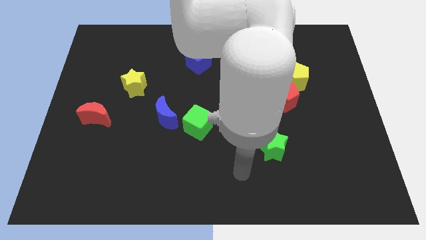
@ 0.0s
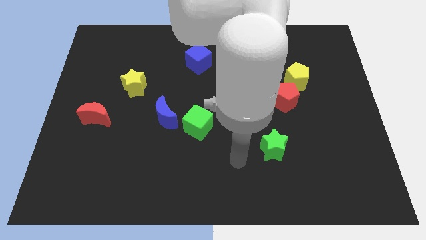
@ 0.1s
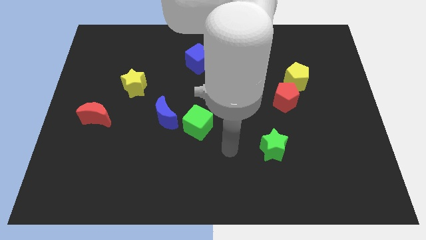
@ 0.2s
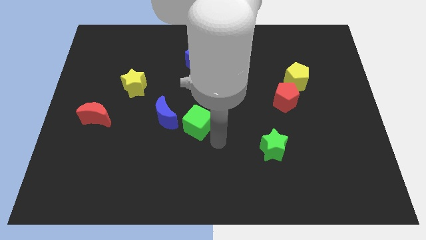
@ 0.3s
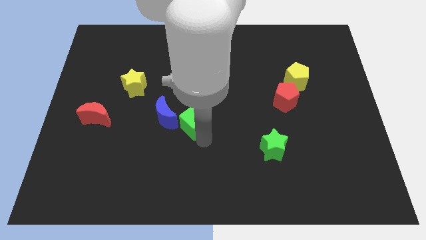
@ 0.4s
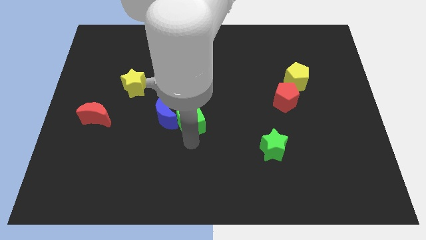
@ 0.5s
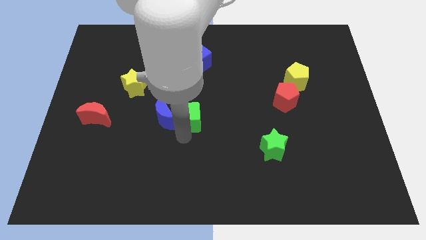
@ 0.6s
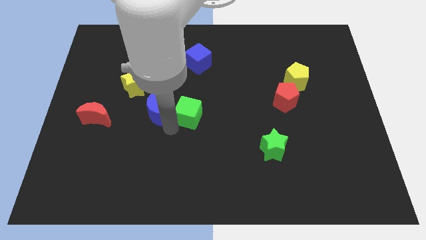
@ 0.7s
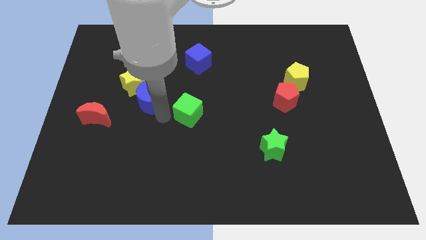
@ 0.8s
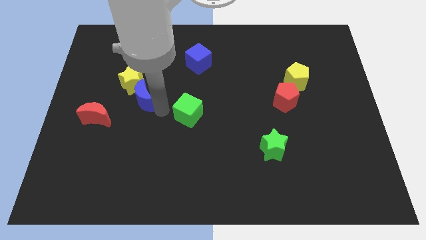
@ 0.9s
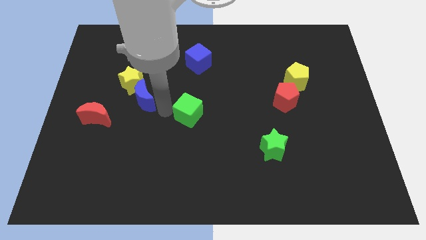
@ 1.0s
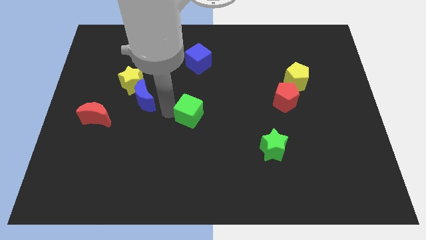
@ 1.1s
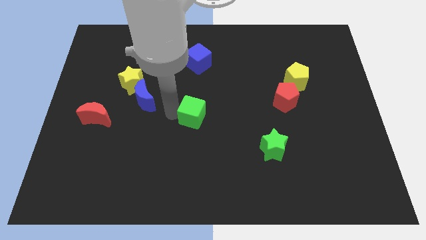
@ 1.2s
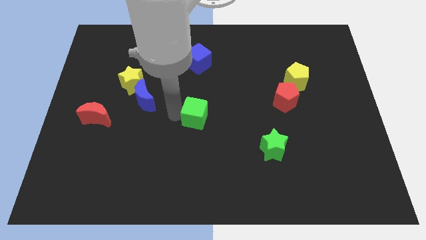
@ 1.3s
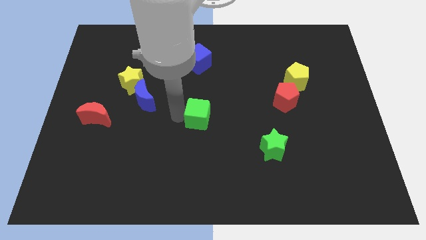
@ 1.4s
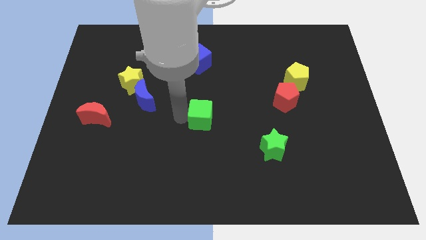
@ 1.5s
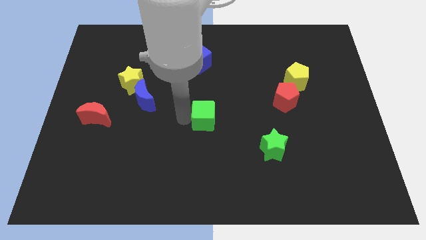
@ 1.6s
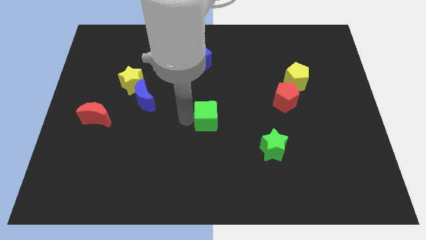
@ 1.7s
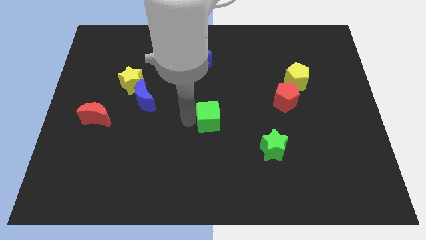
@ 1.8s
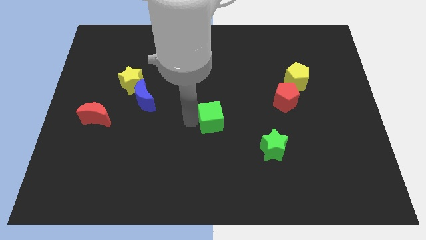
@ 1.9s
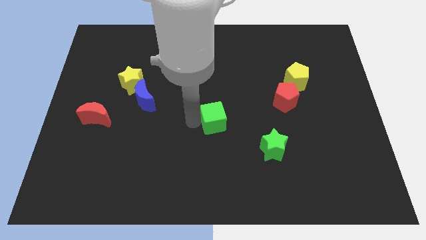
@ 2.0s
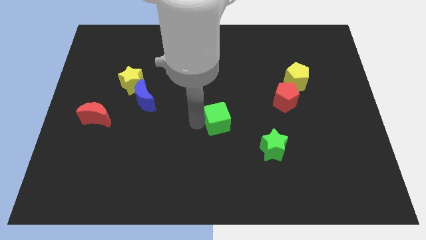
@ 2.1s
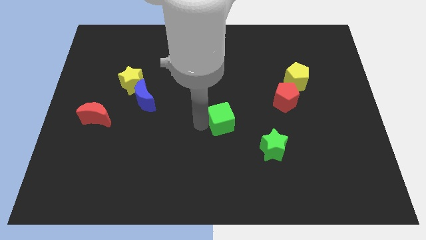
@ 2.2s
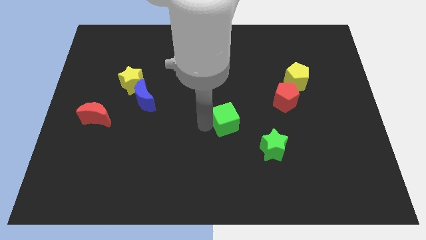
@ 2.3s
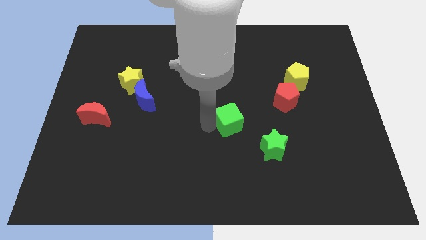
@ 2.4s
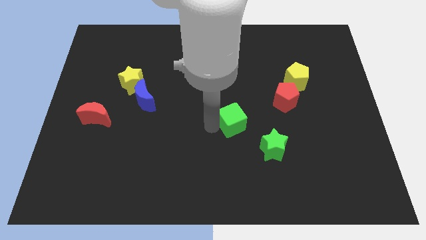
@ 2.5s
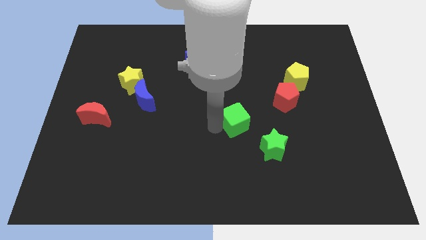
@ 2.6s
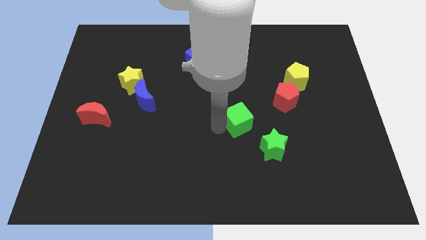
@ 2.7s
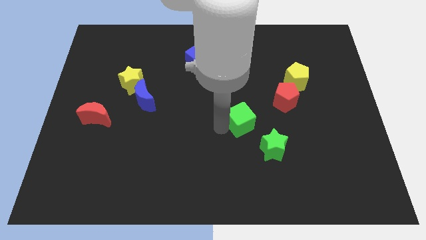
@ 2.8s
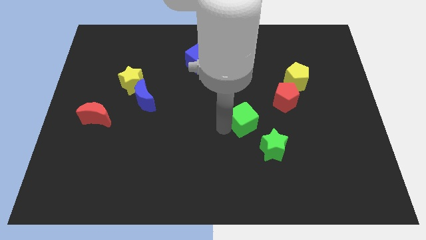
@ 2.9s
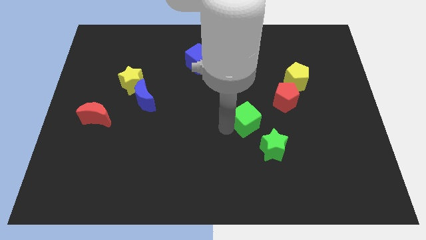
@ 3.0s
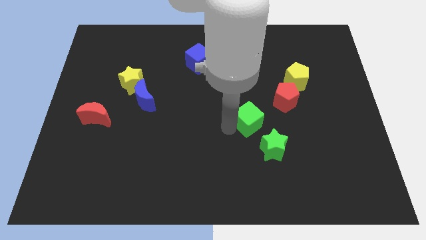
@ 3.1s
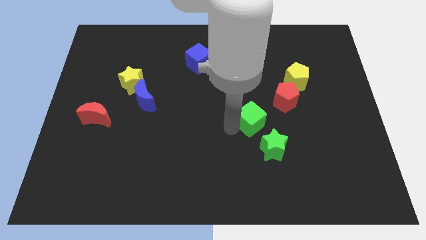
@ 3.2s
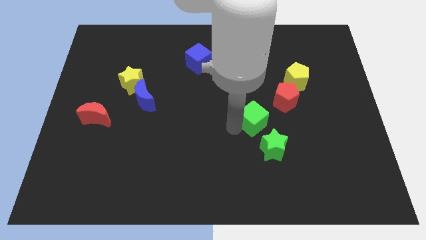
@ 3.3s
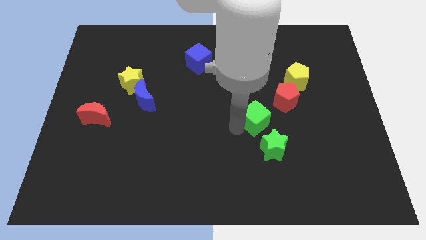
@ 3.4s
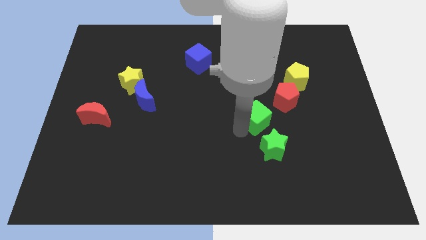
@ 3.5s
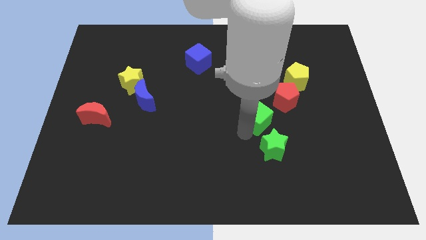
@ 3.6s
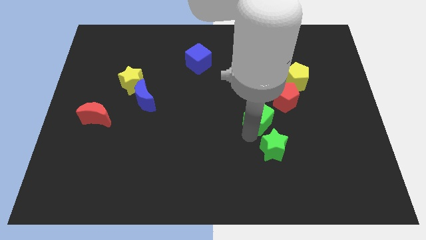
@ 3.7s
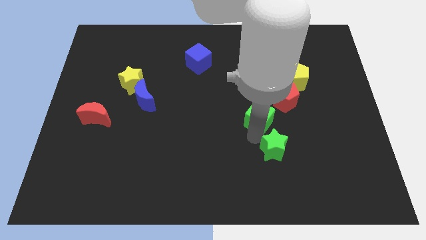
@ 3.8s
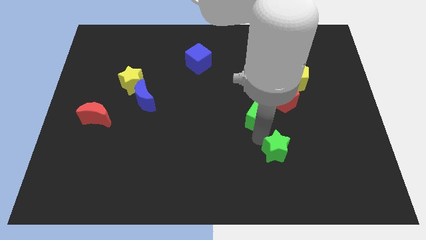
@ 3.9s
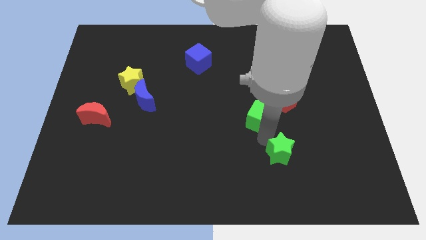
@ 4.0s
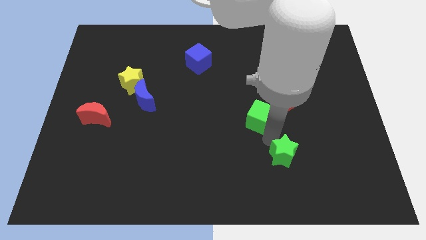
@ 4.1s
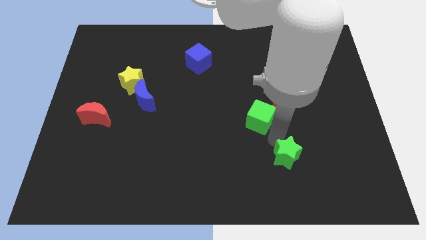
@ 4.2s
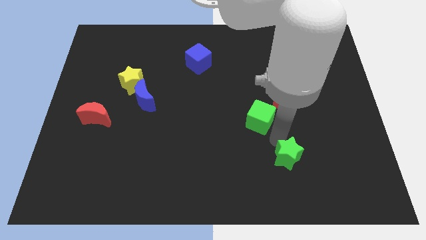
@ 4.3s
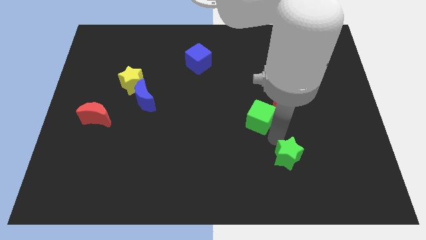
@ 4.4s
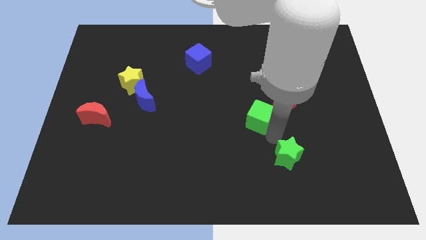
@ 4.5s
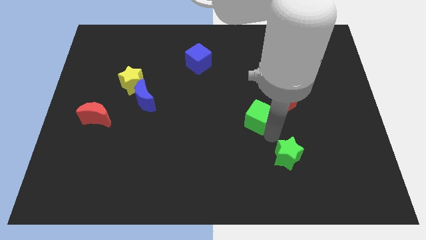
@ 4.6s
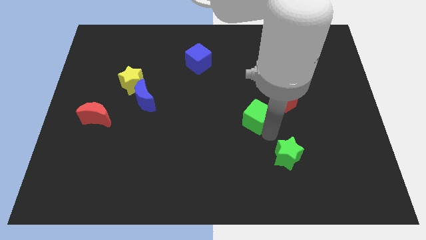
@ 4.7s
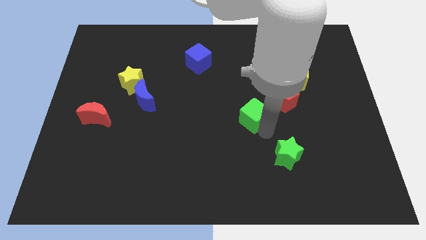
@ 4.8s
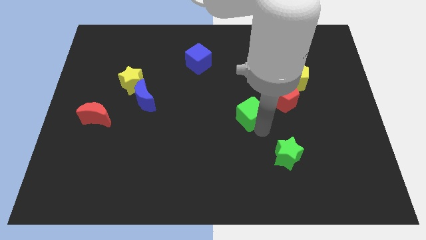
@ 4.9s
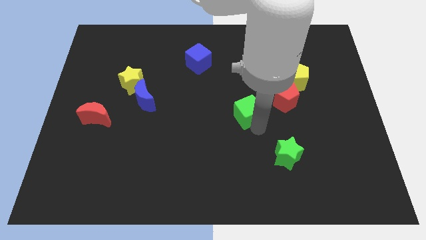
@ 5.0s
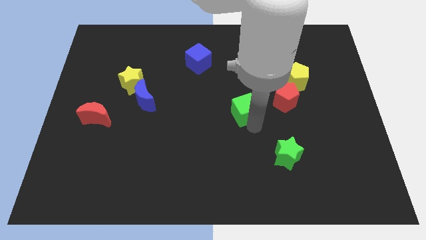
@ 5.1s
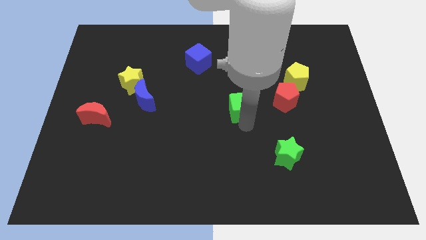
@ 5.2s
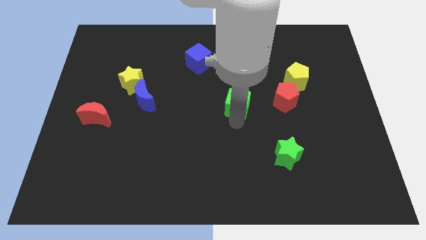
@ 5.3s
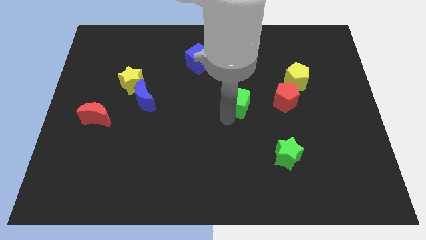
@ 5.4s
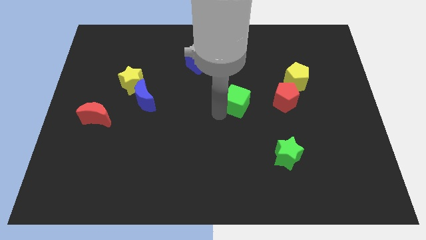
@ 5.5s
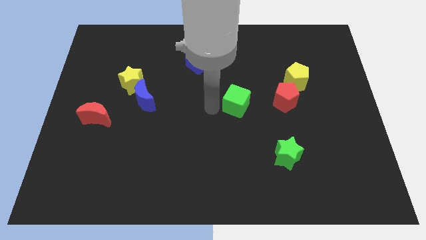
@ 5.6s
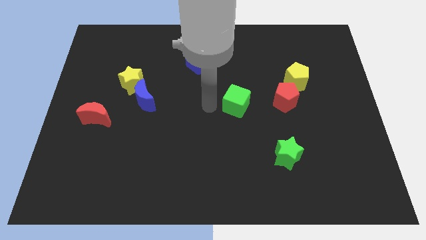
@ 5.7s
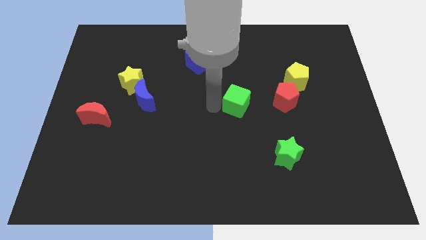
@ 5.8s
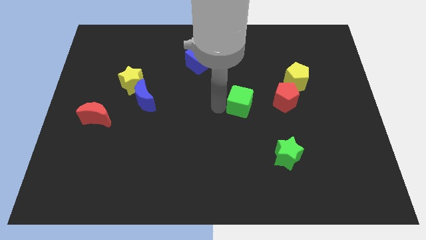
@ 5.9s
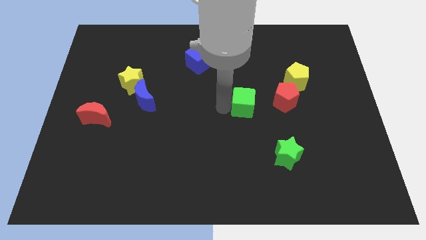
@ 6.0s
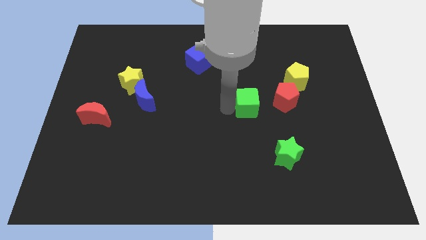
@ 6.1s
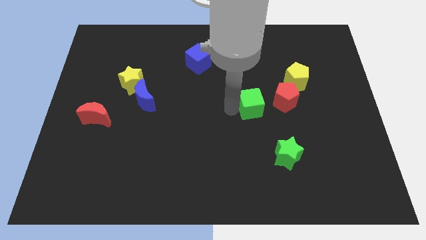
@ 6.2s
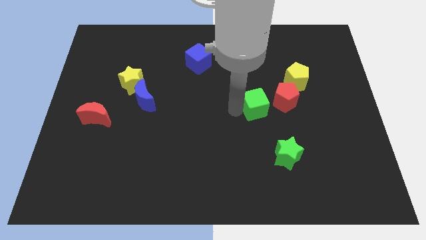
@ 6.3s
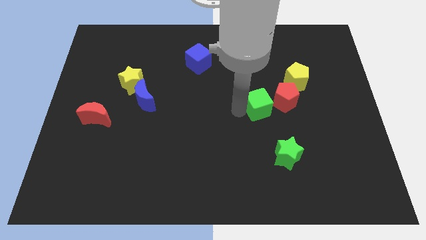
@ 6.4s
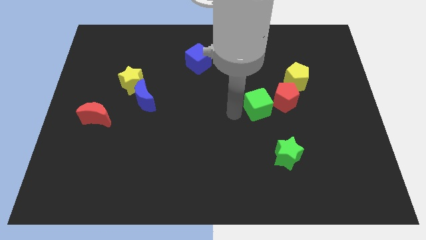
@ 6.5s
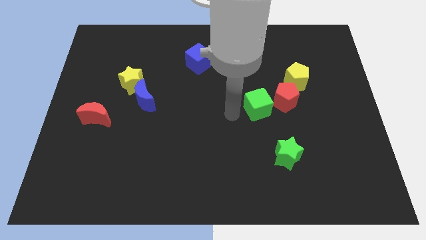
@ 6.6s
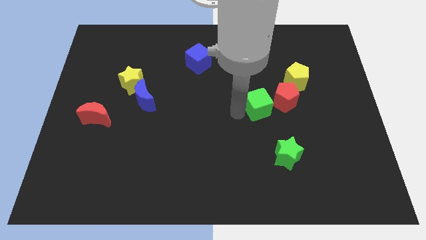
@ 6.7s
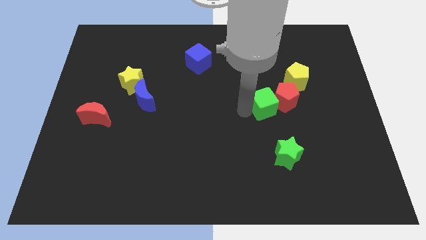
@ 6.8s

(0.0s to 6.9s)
slide the green cube towards the red pentagon
